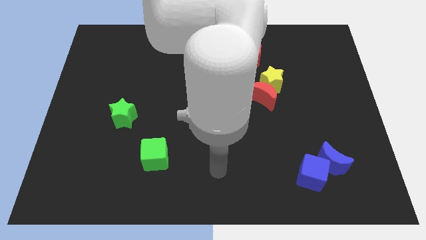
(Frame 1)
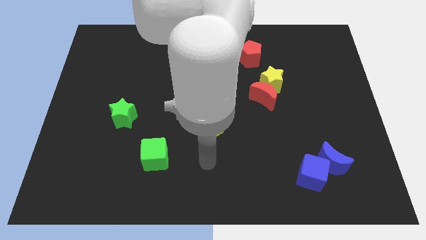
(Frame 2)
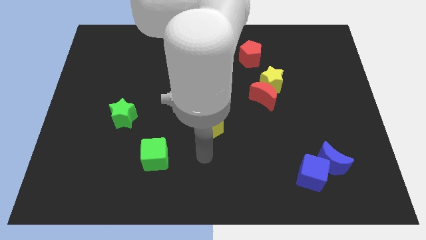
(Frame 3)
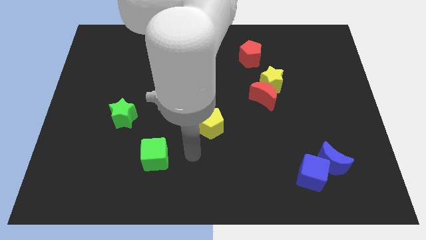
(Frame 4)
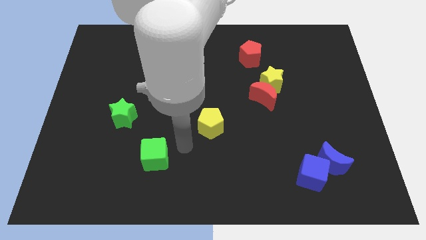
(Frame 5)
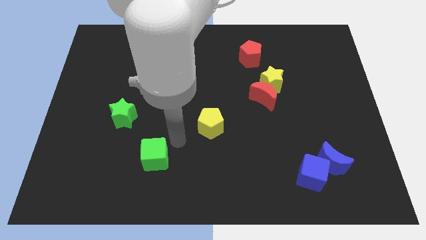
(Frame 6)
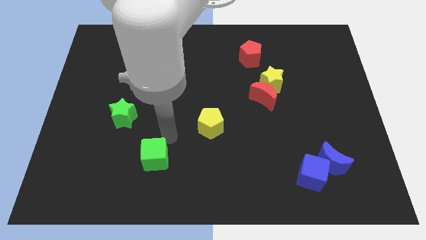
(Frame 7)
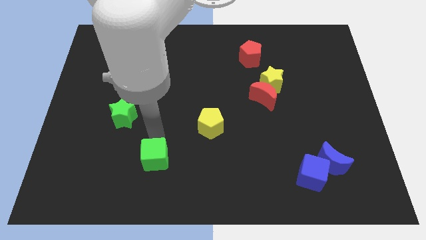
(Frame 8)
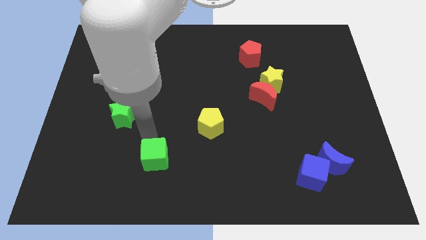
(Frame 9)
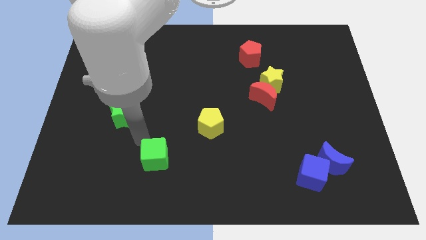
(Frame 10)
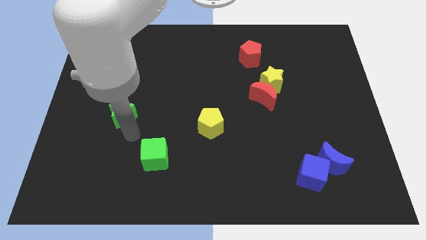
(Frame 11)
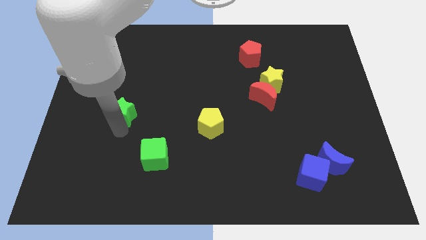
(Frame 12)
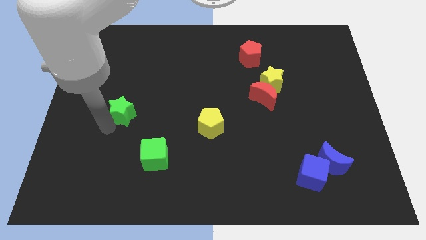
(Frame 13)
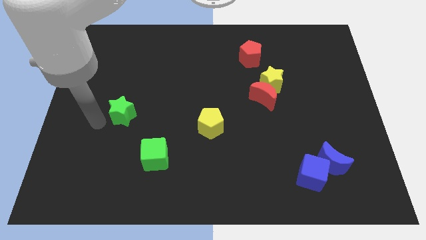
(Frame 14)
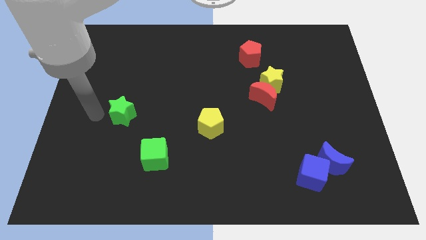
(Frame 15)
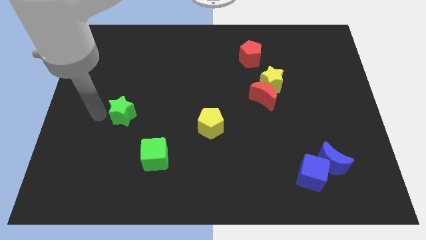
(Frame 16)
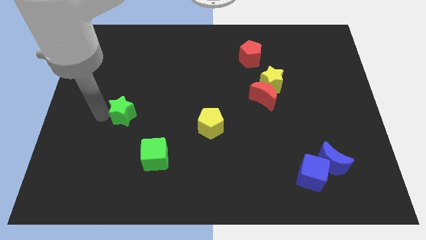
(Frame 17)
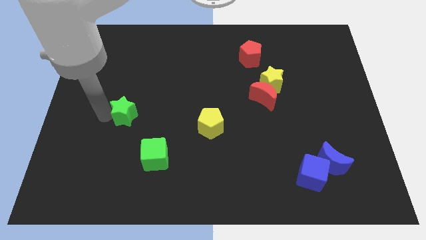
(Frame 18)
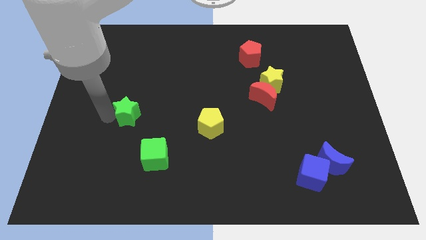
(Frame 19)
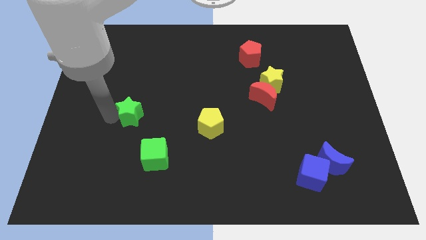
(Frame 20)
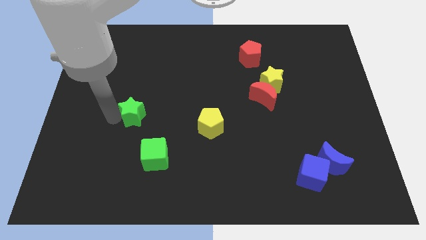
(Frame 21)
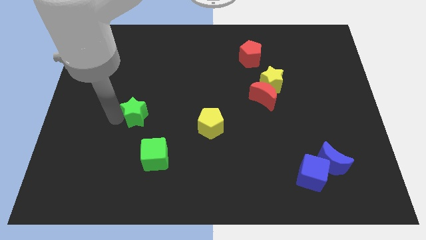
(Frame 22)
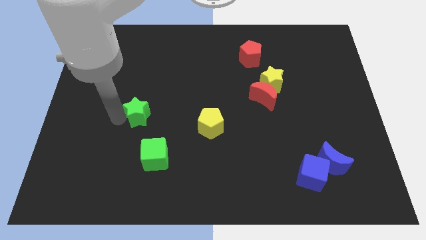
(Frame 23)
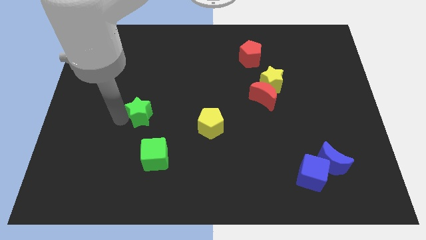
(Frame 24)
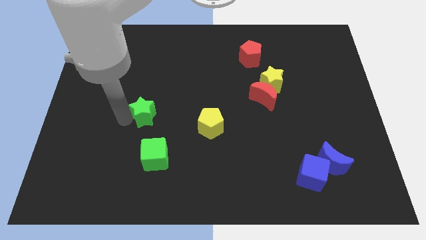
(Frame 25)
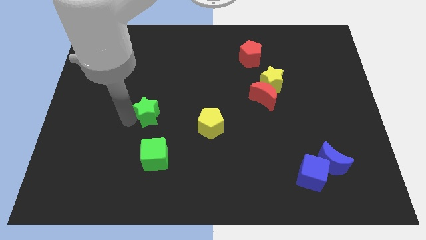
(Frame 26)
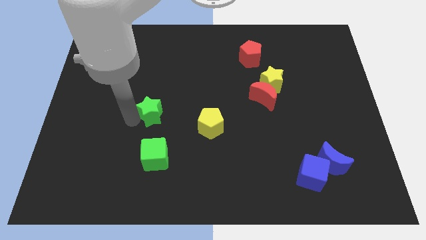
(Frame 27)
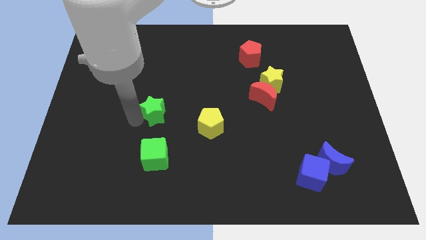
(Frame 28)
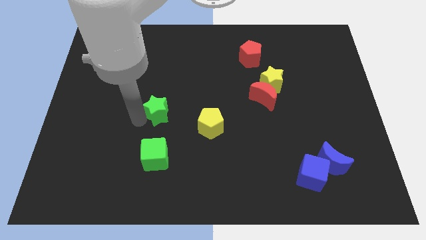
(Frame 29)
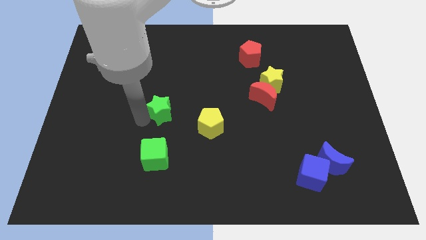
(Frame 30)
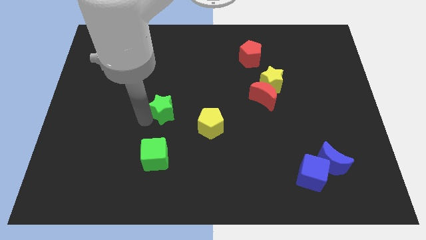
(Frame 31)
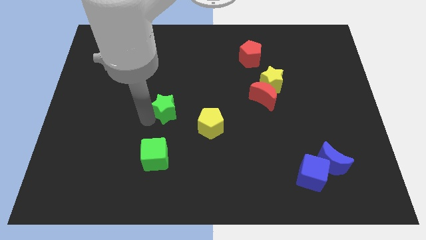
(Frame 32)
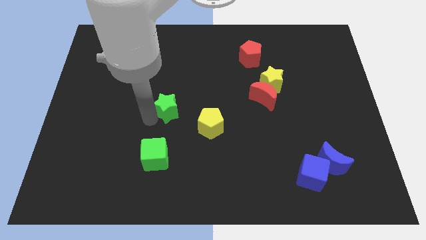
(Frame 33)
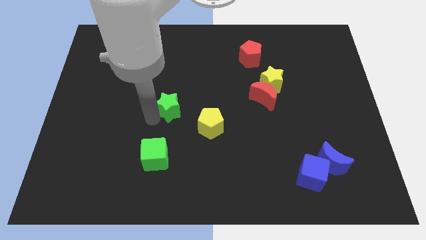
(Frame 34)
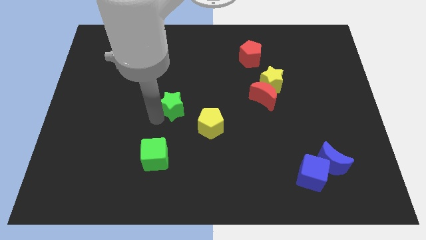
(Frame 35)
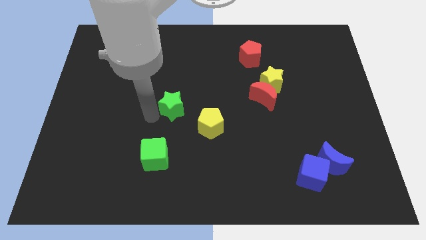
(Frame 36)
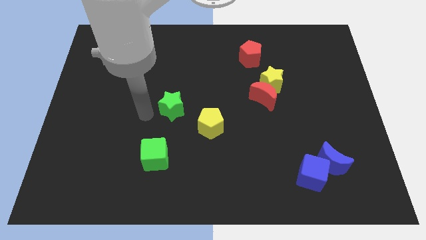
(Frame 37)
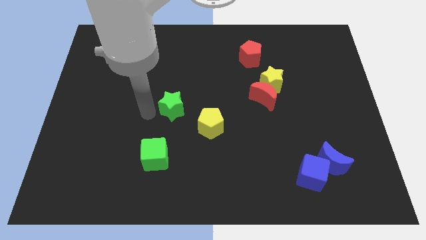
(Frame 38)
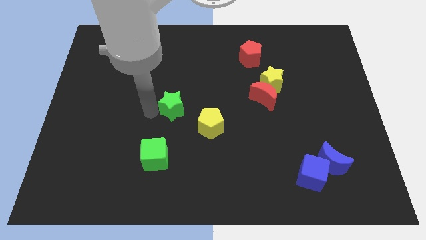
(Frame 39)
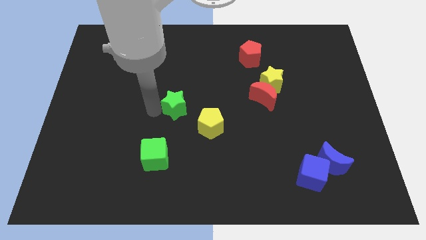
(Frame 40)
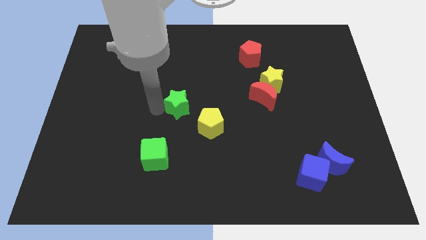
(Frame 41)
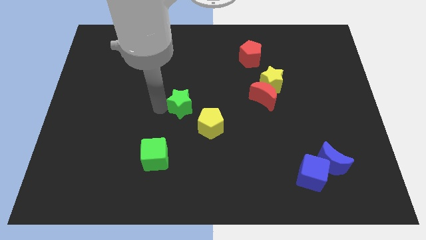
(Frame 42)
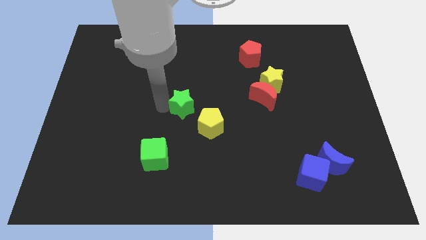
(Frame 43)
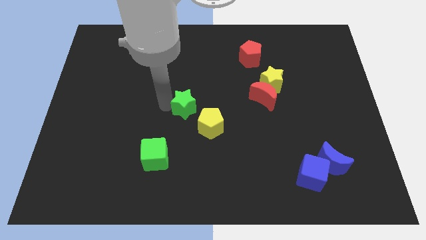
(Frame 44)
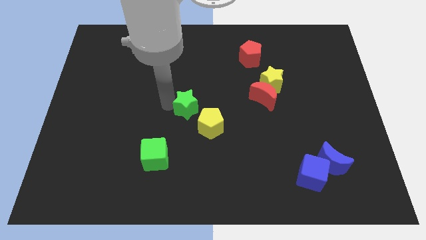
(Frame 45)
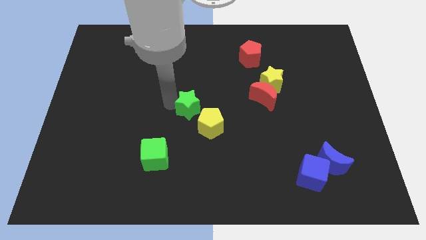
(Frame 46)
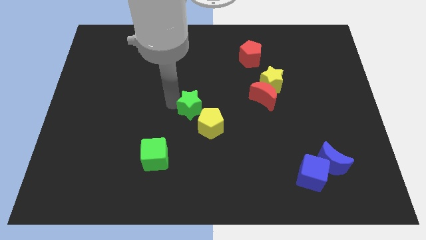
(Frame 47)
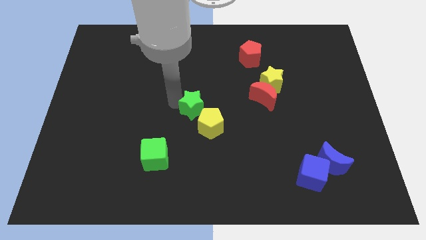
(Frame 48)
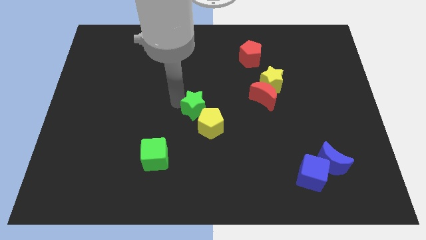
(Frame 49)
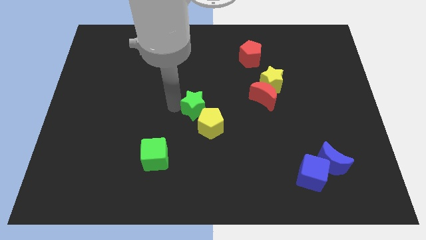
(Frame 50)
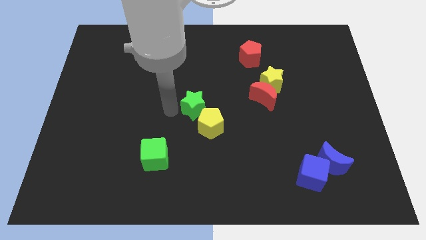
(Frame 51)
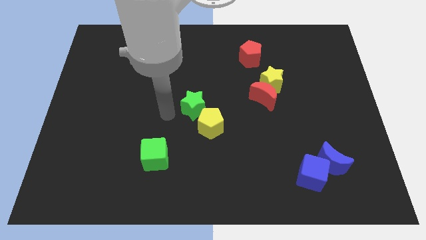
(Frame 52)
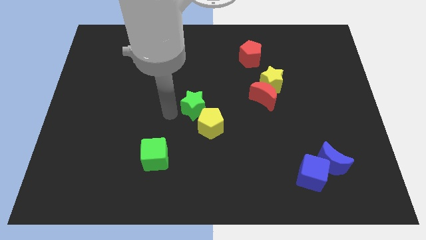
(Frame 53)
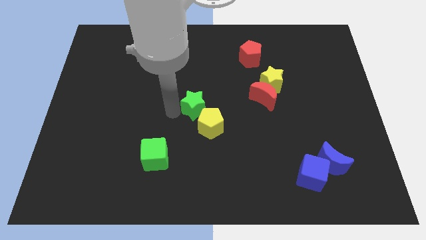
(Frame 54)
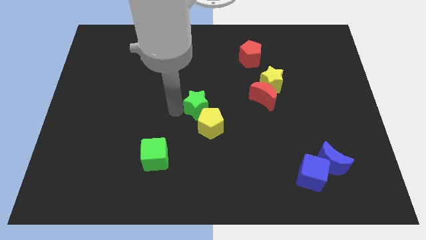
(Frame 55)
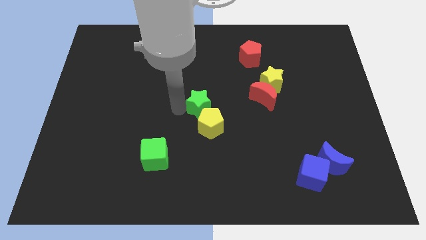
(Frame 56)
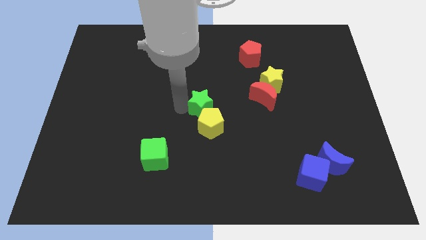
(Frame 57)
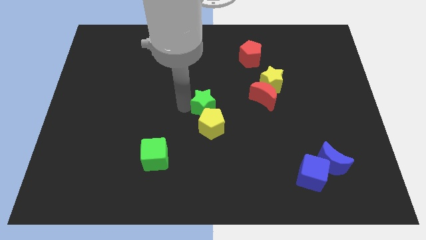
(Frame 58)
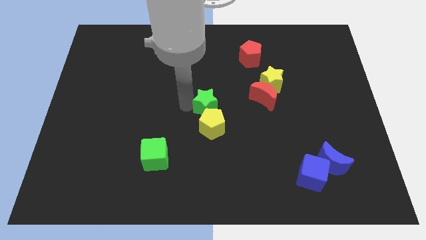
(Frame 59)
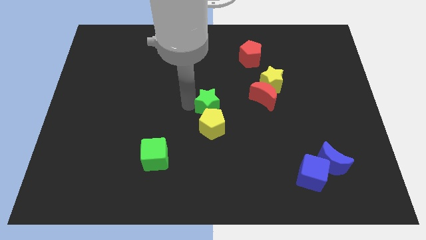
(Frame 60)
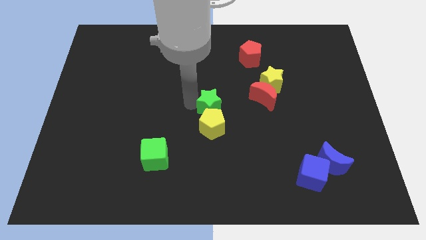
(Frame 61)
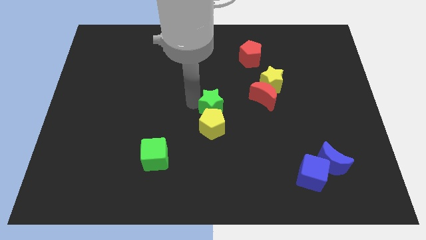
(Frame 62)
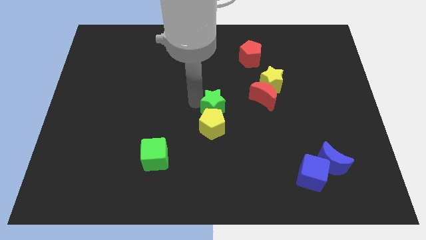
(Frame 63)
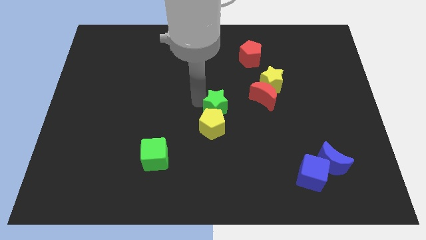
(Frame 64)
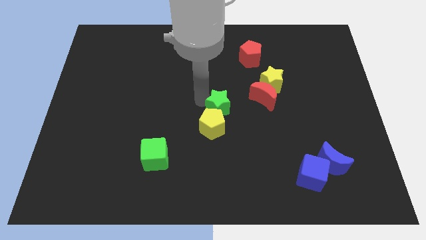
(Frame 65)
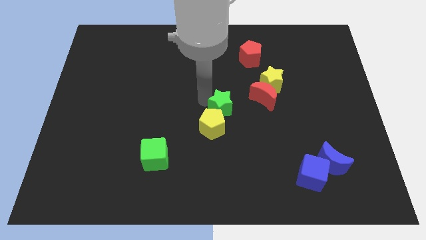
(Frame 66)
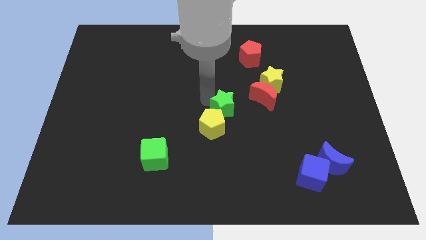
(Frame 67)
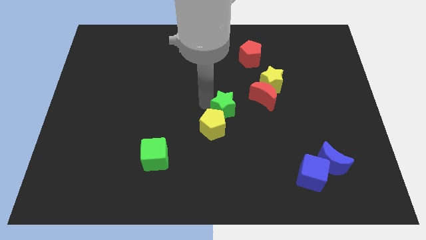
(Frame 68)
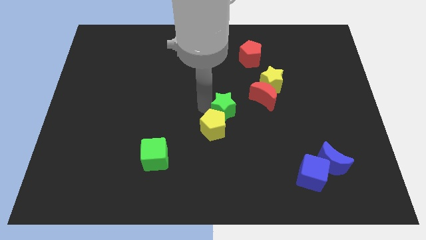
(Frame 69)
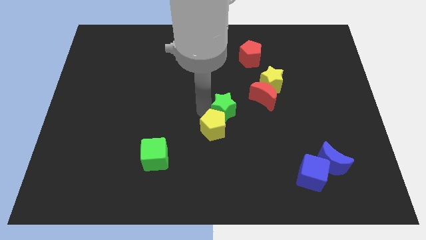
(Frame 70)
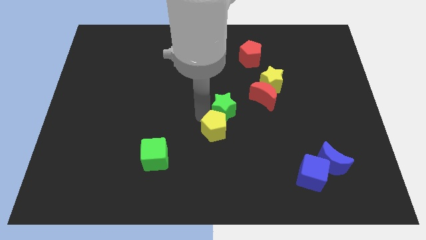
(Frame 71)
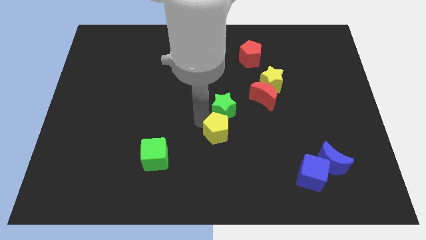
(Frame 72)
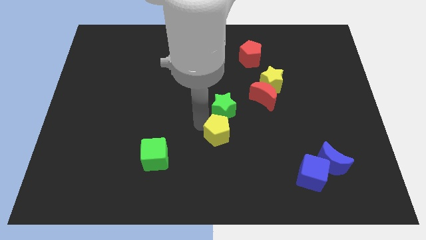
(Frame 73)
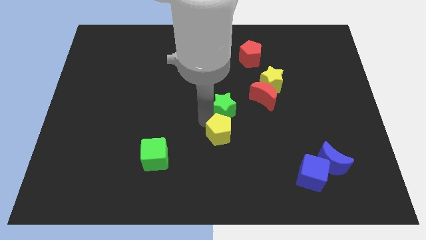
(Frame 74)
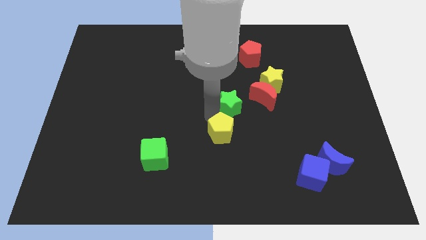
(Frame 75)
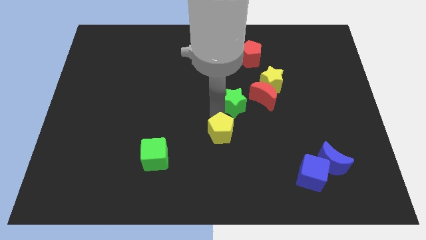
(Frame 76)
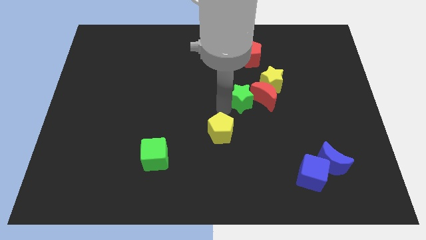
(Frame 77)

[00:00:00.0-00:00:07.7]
put the green star close to the red moon

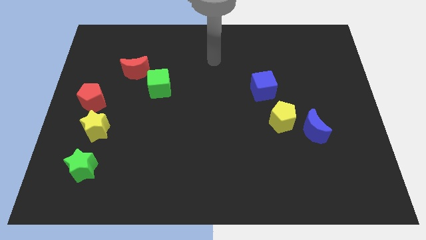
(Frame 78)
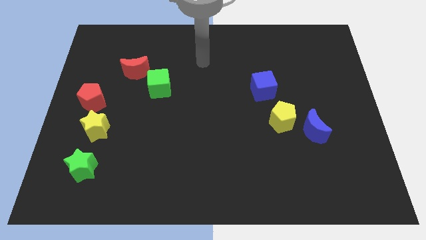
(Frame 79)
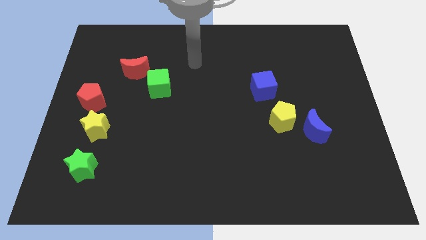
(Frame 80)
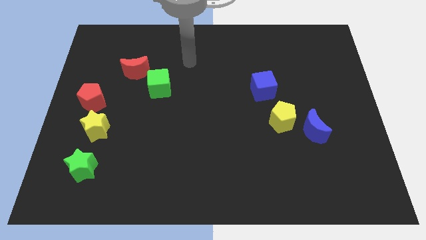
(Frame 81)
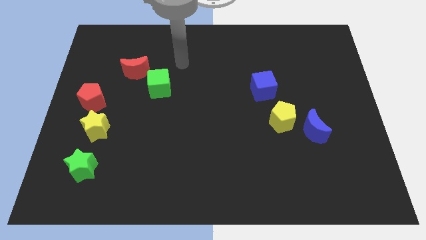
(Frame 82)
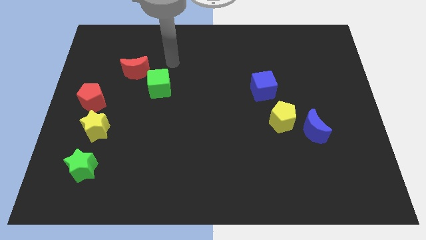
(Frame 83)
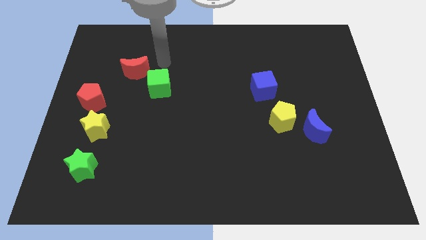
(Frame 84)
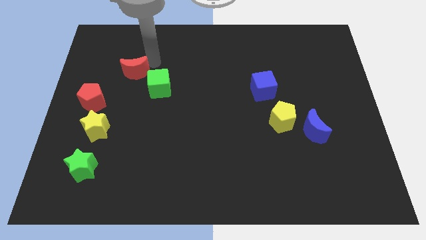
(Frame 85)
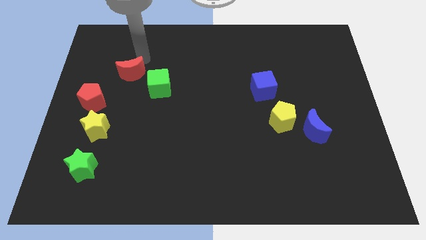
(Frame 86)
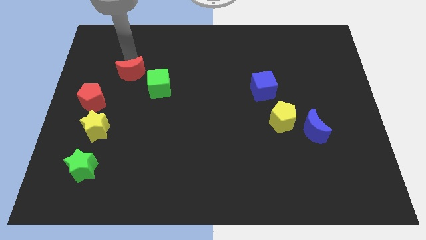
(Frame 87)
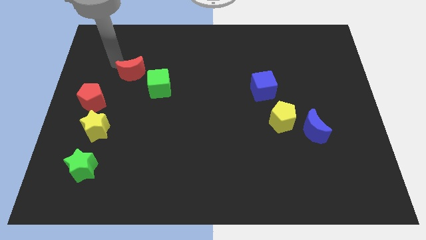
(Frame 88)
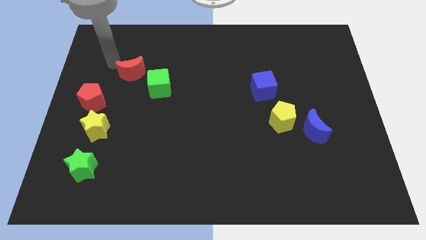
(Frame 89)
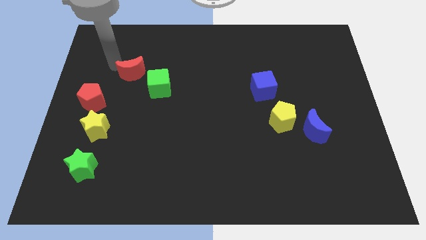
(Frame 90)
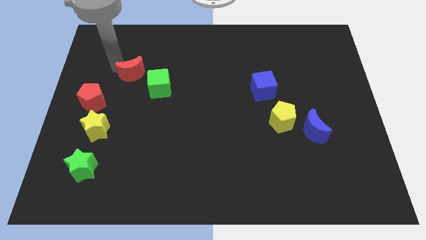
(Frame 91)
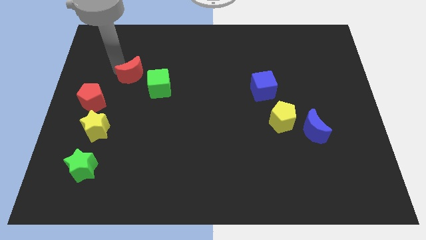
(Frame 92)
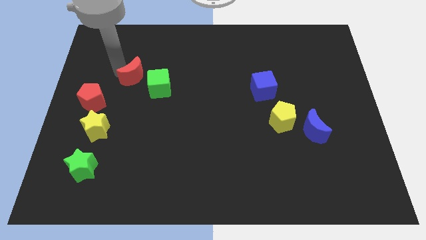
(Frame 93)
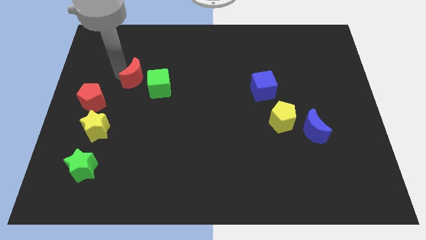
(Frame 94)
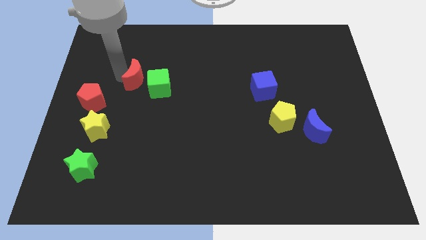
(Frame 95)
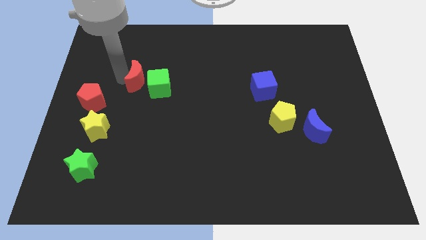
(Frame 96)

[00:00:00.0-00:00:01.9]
put the red moon towards the green cube
